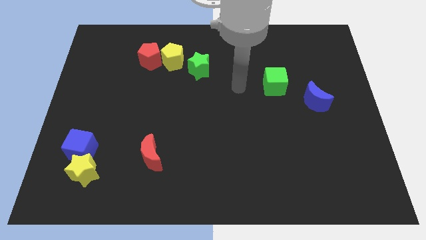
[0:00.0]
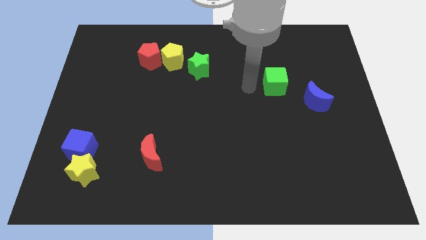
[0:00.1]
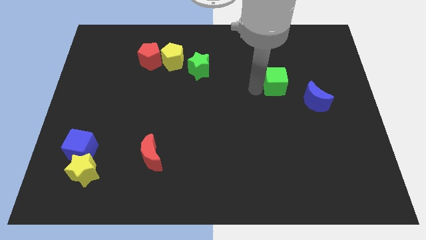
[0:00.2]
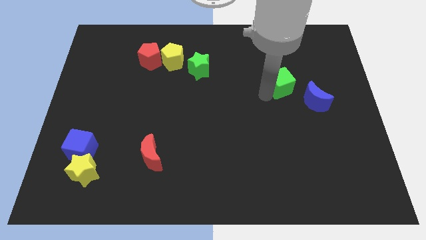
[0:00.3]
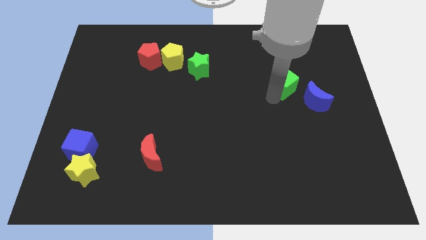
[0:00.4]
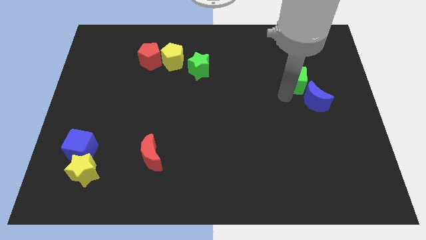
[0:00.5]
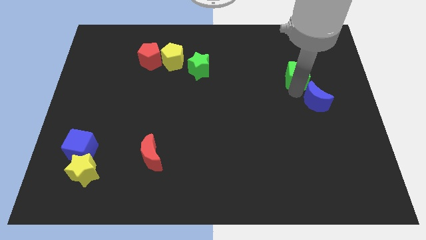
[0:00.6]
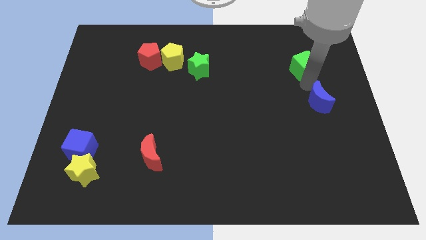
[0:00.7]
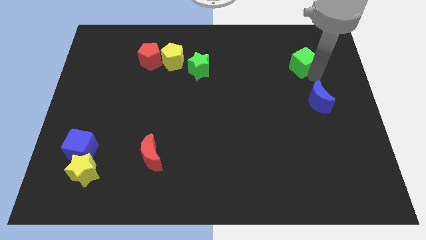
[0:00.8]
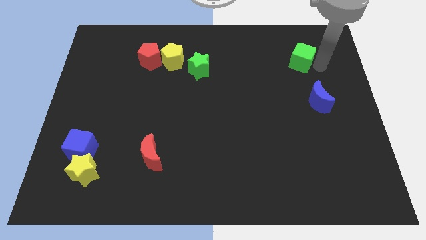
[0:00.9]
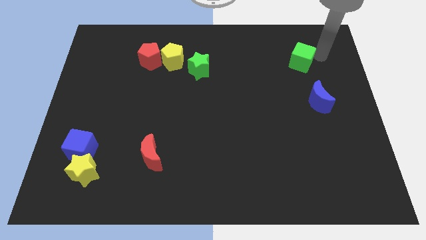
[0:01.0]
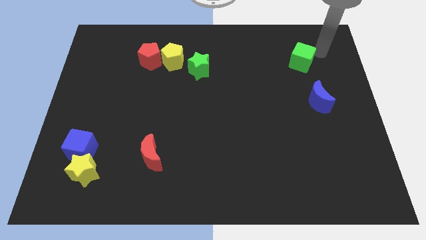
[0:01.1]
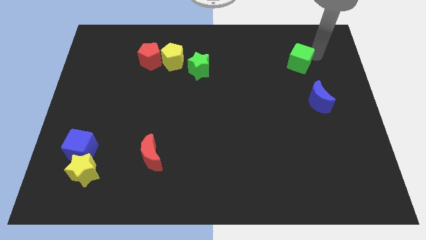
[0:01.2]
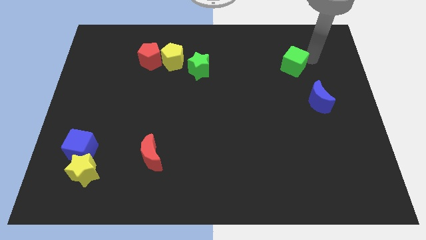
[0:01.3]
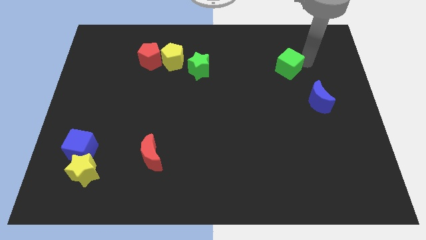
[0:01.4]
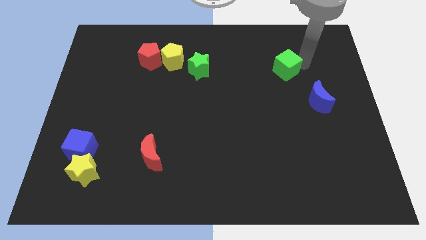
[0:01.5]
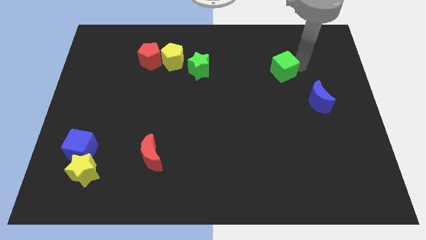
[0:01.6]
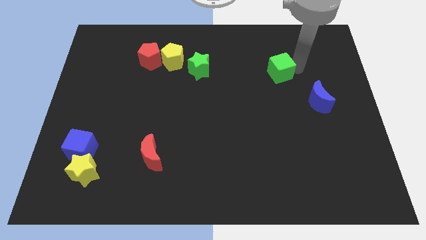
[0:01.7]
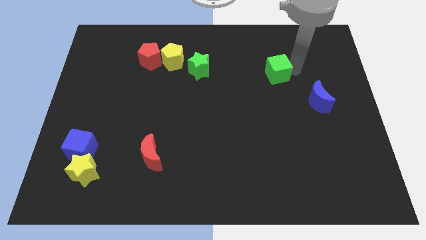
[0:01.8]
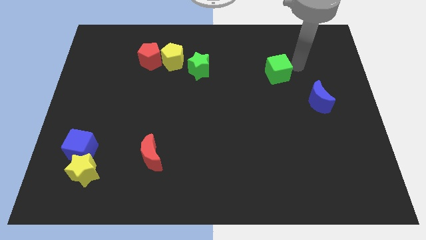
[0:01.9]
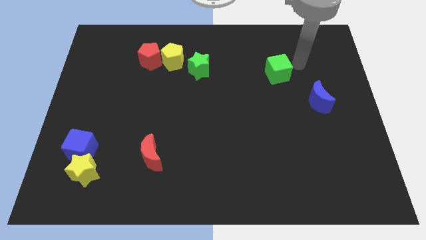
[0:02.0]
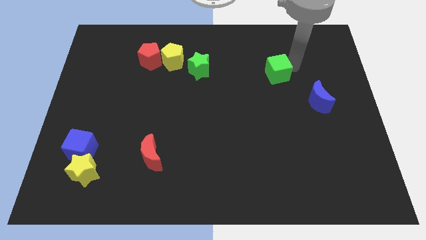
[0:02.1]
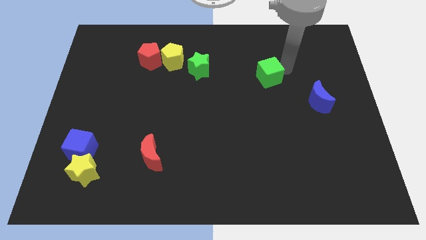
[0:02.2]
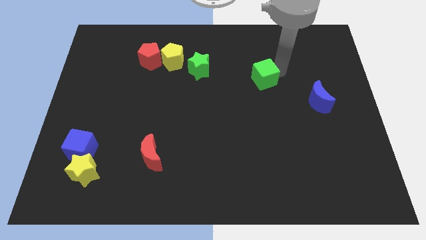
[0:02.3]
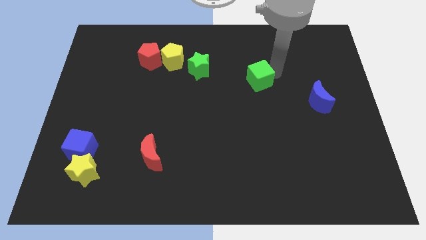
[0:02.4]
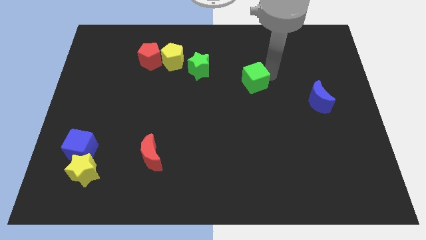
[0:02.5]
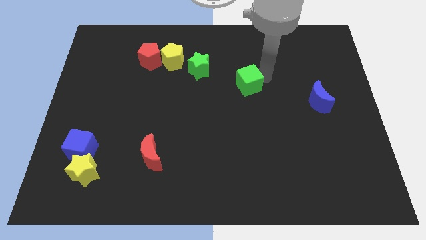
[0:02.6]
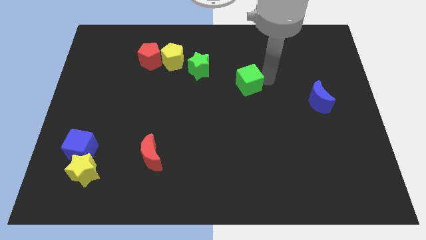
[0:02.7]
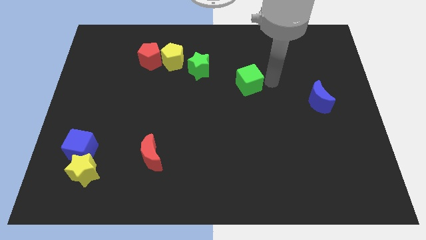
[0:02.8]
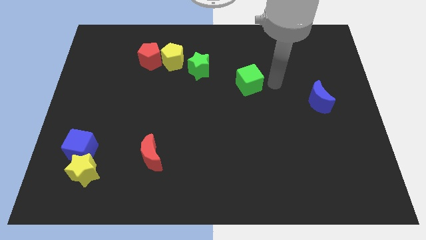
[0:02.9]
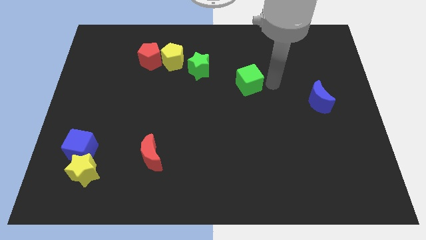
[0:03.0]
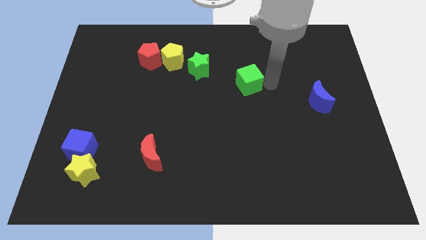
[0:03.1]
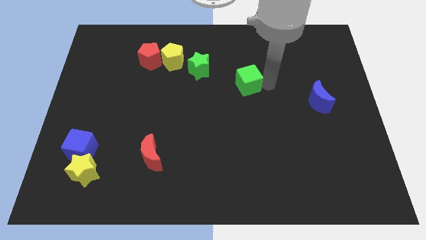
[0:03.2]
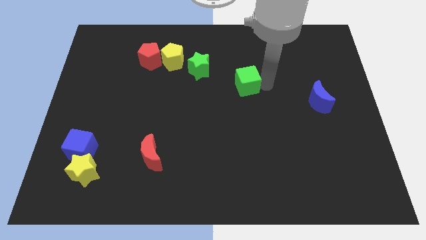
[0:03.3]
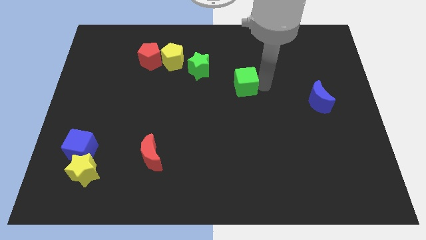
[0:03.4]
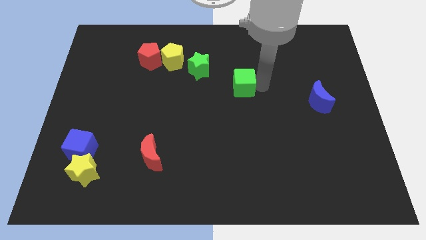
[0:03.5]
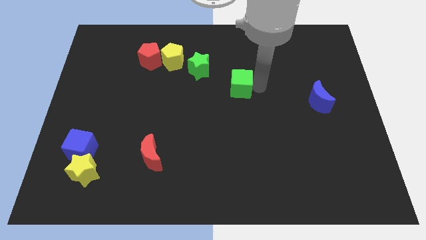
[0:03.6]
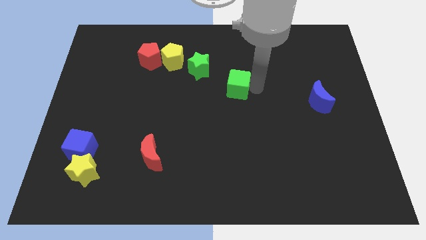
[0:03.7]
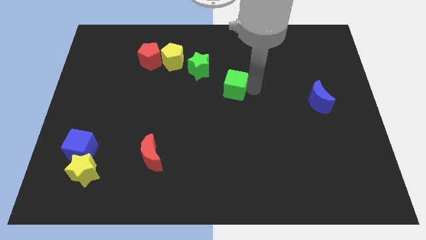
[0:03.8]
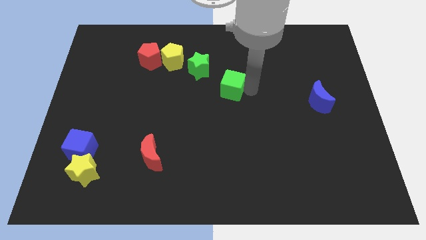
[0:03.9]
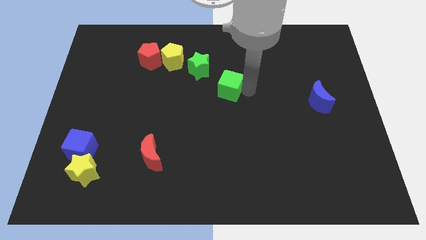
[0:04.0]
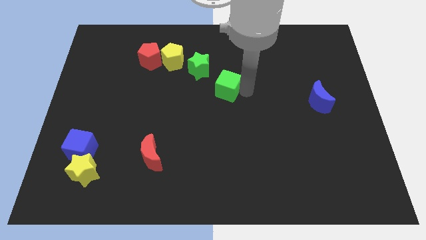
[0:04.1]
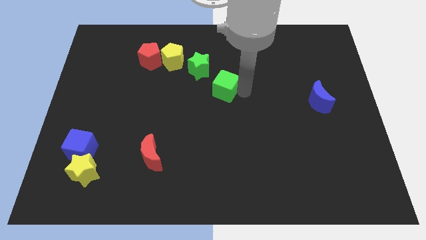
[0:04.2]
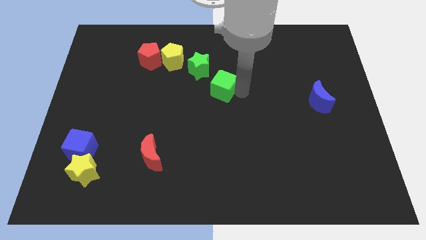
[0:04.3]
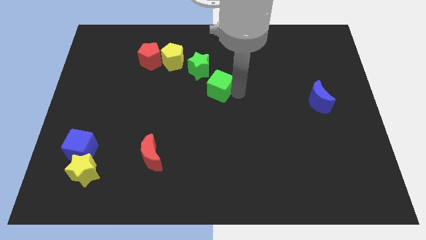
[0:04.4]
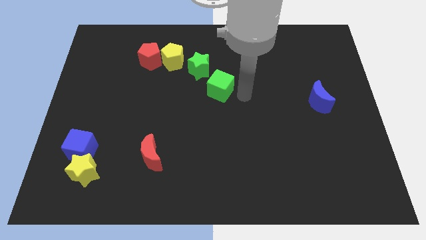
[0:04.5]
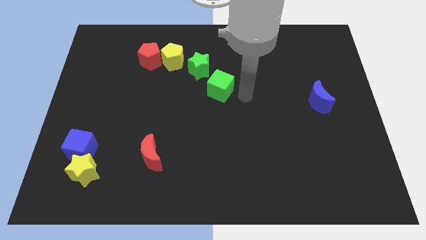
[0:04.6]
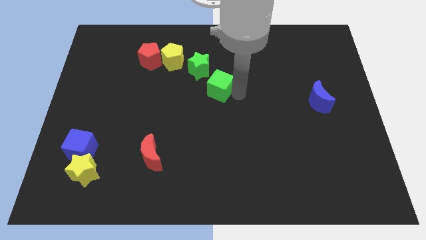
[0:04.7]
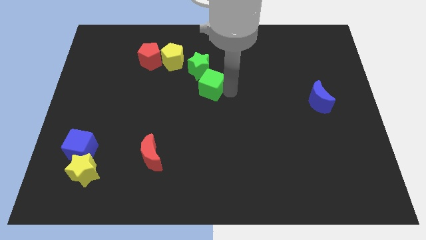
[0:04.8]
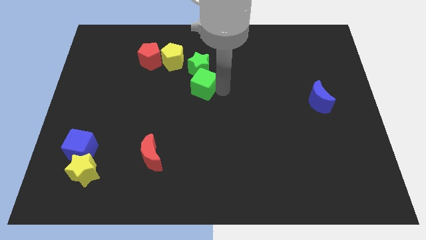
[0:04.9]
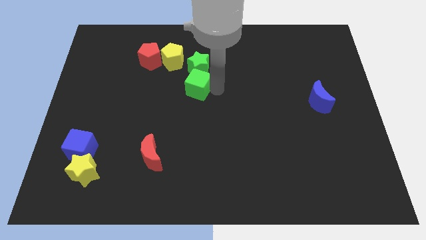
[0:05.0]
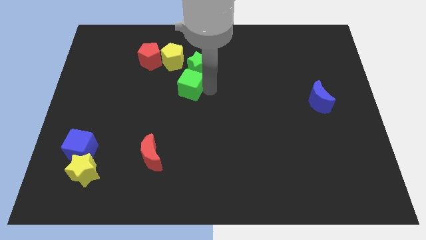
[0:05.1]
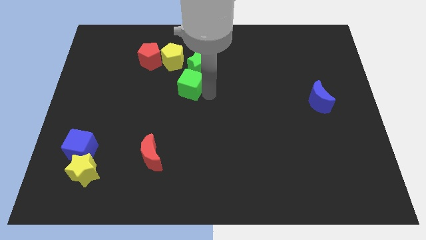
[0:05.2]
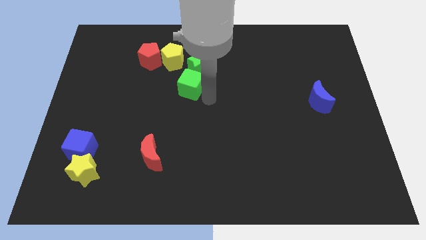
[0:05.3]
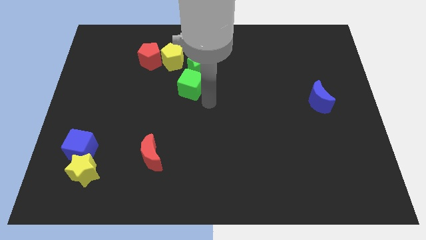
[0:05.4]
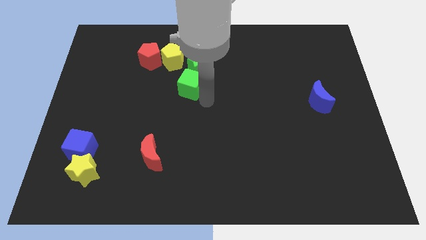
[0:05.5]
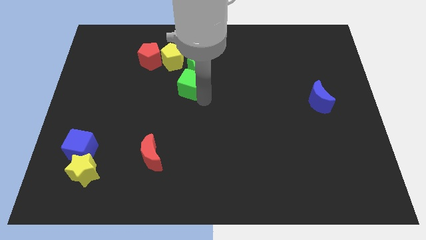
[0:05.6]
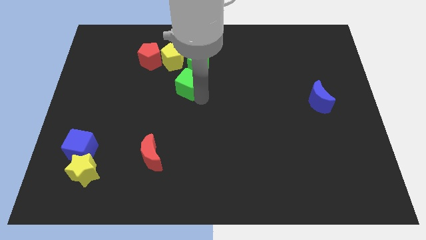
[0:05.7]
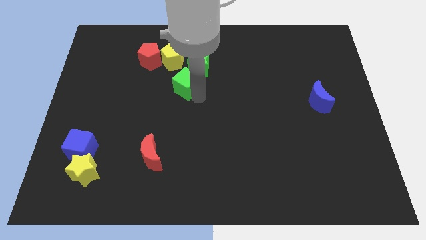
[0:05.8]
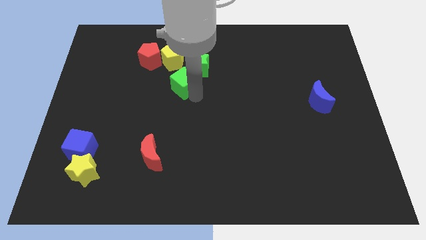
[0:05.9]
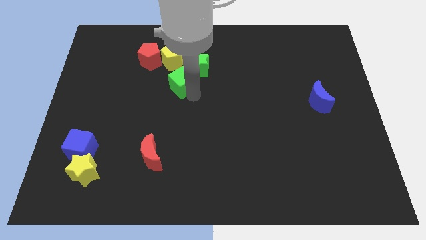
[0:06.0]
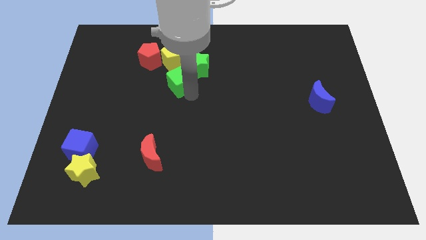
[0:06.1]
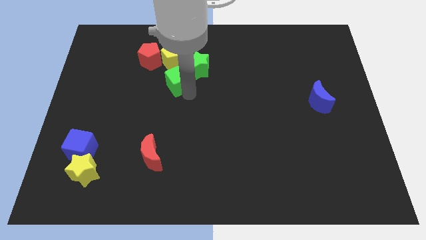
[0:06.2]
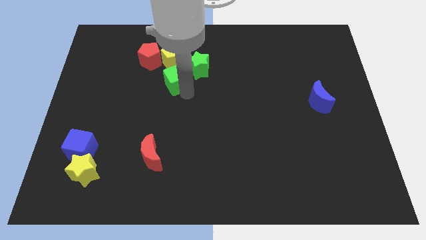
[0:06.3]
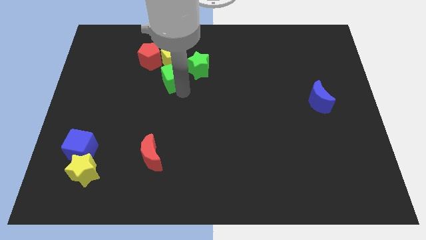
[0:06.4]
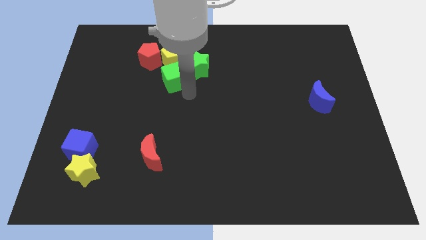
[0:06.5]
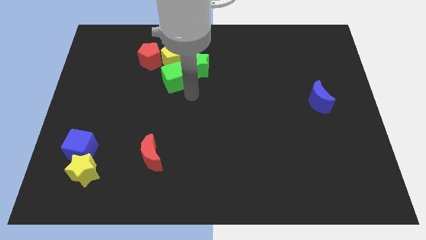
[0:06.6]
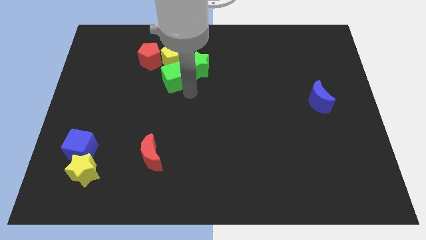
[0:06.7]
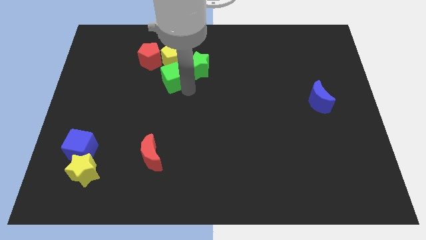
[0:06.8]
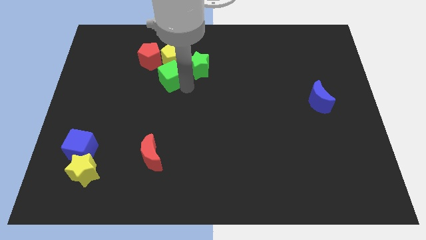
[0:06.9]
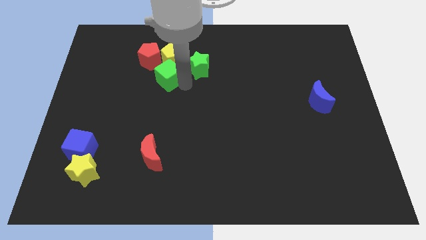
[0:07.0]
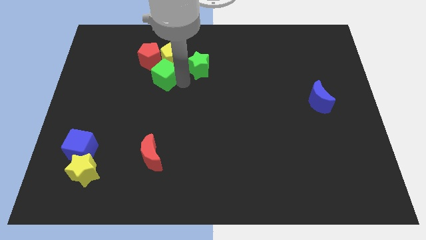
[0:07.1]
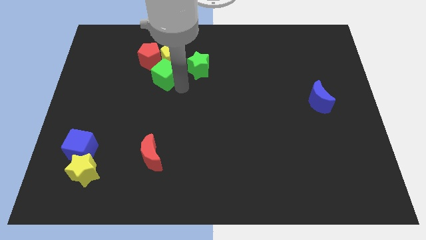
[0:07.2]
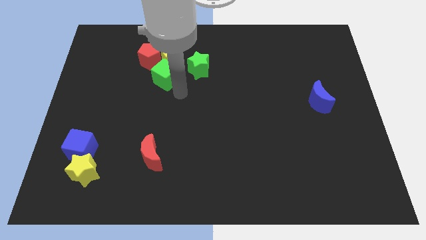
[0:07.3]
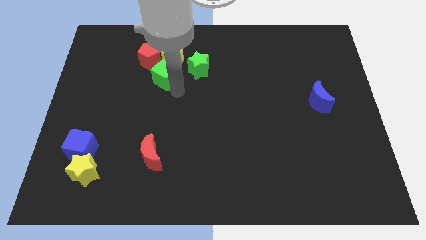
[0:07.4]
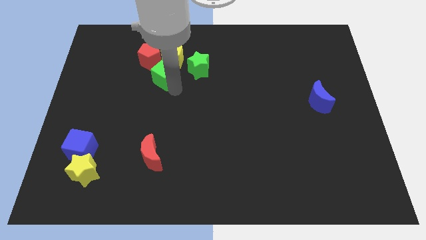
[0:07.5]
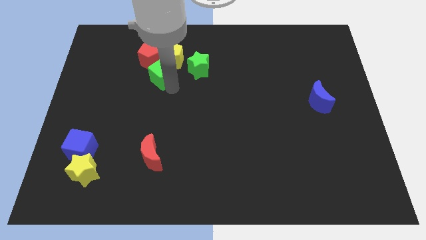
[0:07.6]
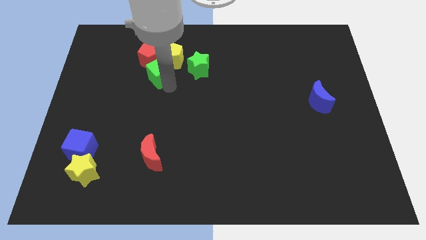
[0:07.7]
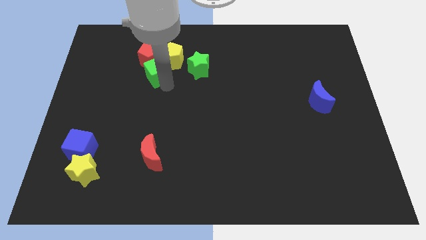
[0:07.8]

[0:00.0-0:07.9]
slide the green cube towards the red pentagon
